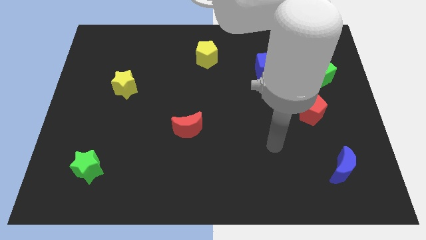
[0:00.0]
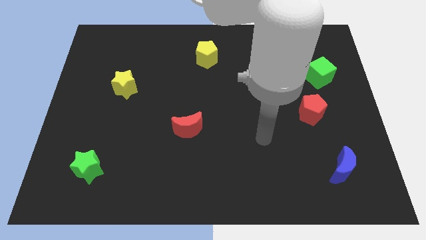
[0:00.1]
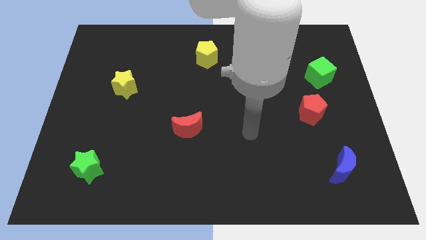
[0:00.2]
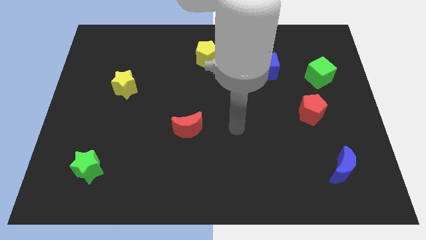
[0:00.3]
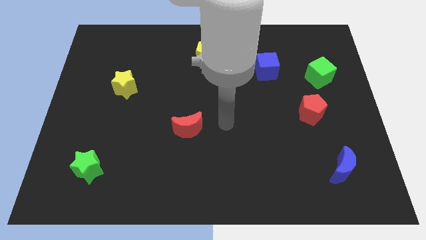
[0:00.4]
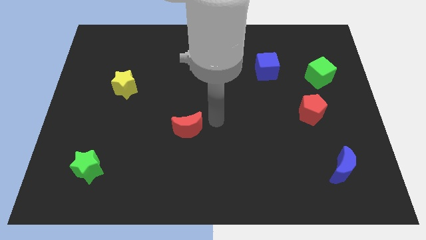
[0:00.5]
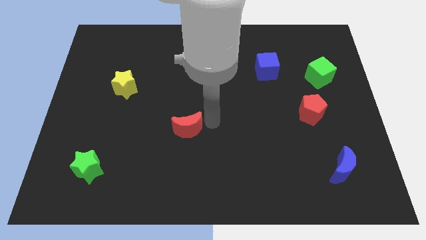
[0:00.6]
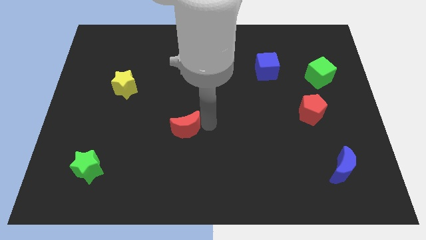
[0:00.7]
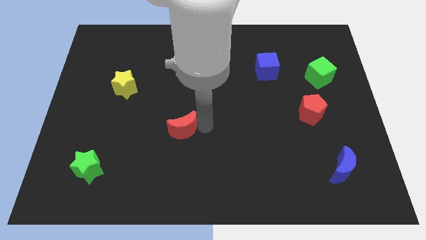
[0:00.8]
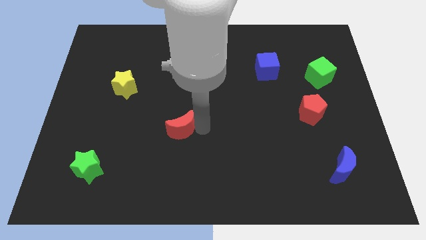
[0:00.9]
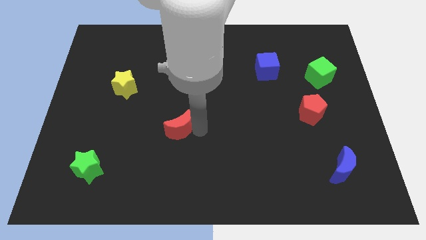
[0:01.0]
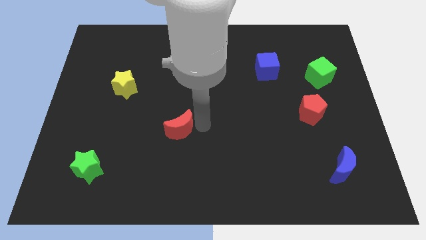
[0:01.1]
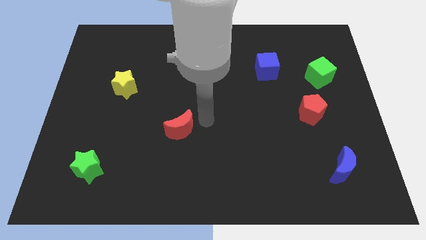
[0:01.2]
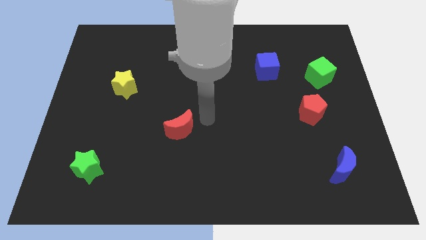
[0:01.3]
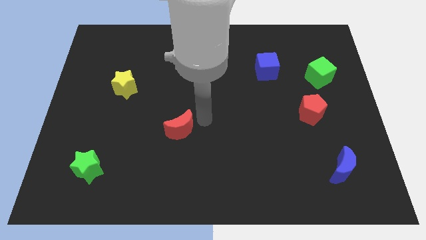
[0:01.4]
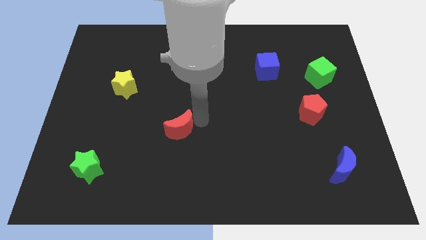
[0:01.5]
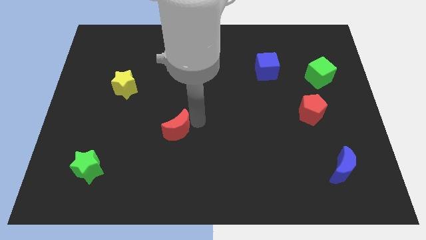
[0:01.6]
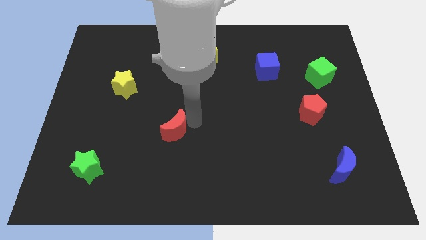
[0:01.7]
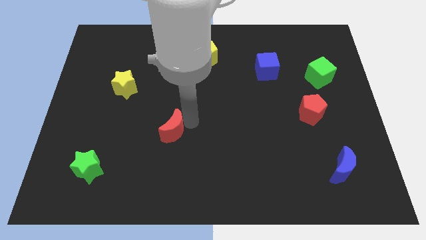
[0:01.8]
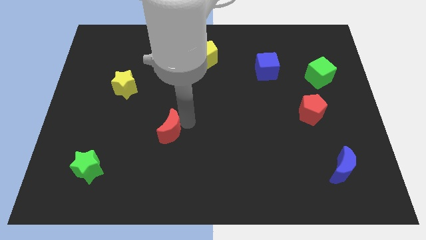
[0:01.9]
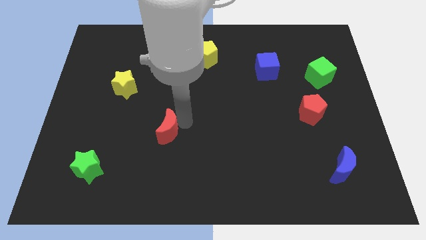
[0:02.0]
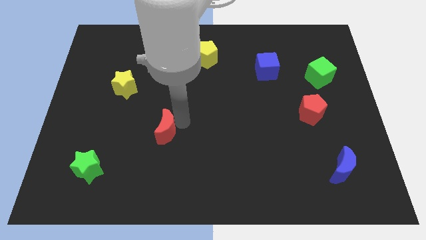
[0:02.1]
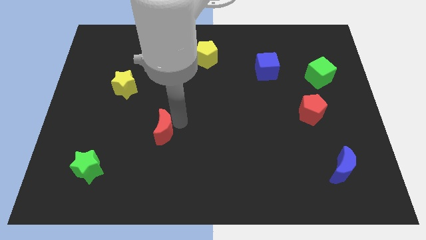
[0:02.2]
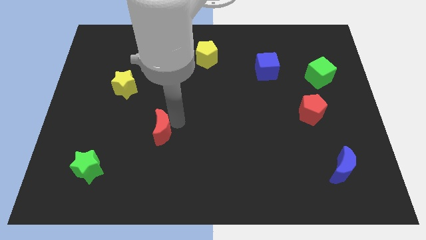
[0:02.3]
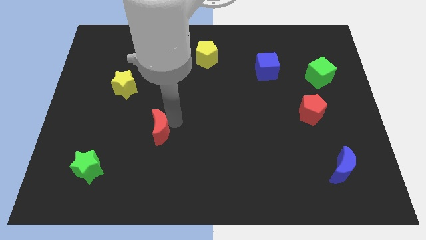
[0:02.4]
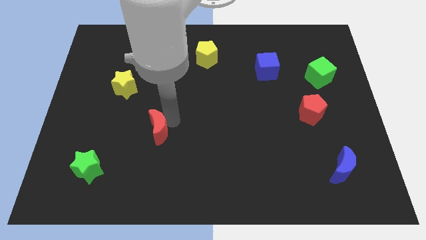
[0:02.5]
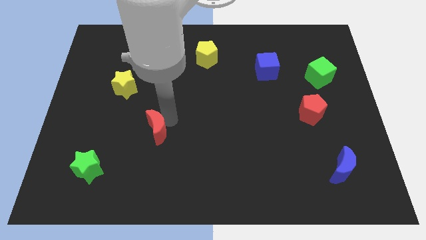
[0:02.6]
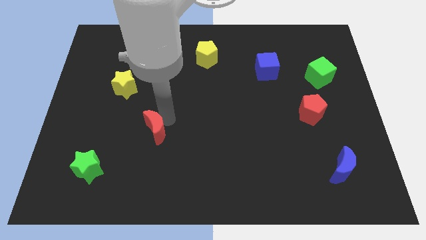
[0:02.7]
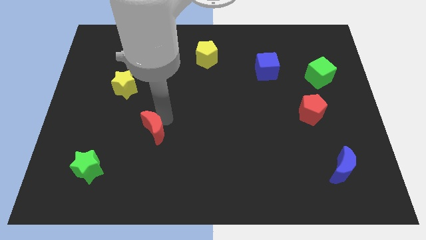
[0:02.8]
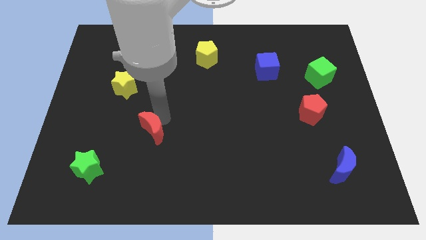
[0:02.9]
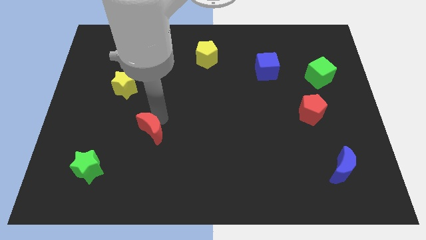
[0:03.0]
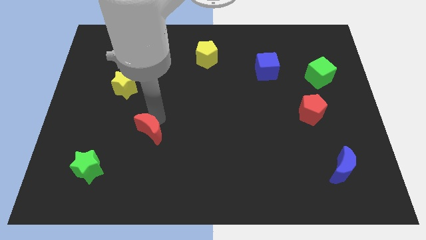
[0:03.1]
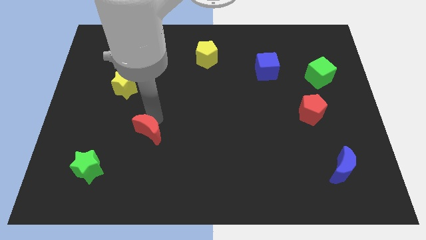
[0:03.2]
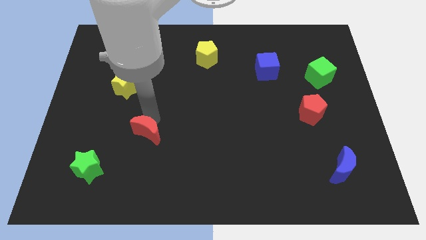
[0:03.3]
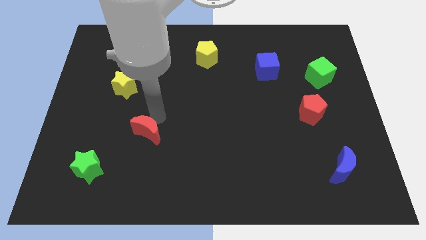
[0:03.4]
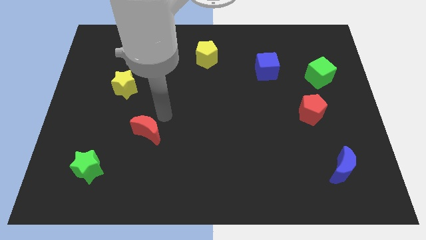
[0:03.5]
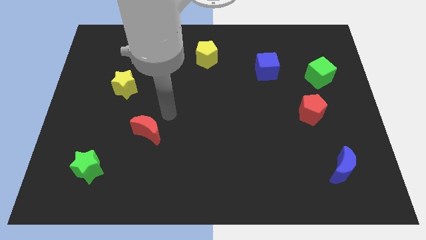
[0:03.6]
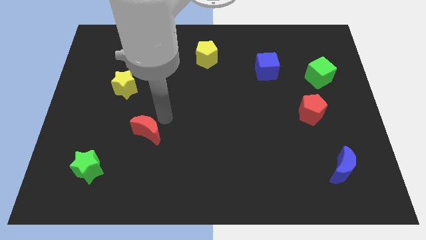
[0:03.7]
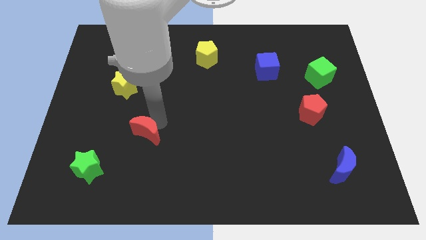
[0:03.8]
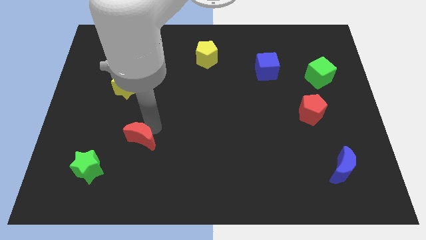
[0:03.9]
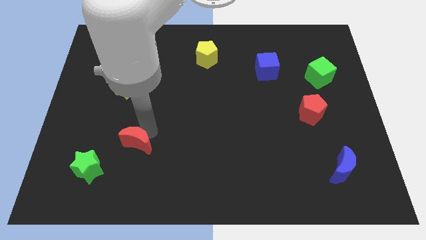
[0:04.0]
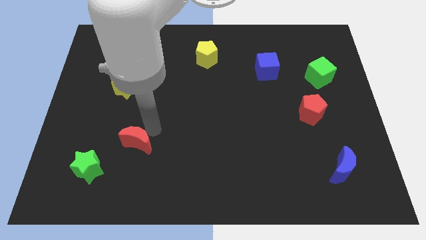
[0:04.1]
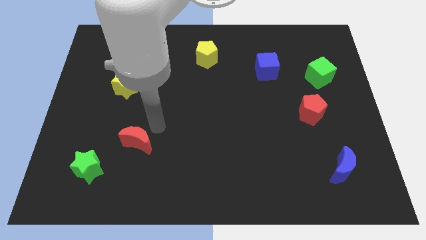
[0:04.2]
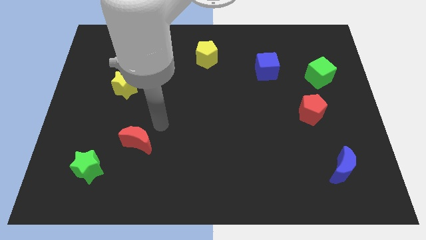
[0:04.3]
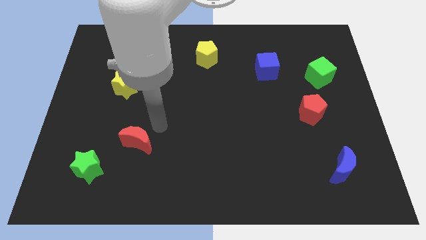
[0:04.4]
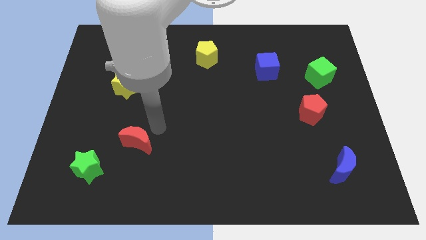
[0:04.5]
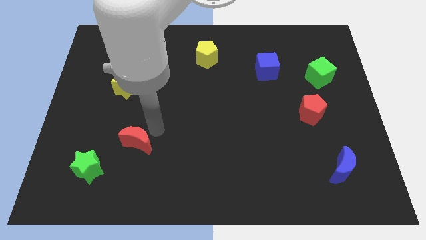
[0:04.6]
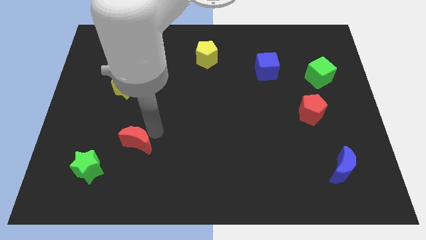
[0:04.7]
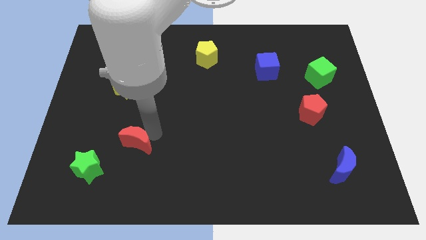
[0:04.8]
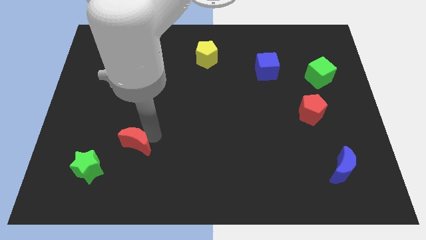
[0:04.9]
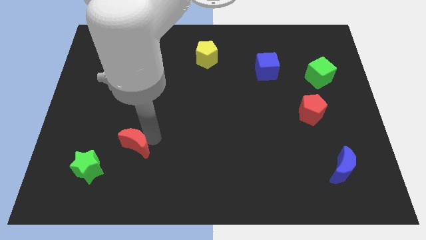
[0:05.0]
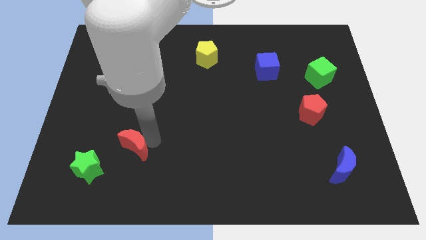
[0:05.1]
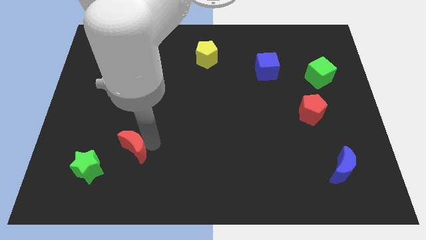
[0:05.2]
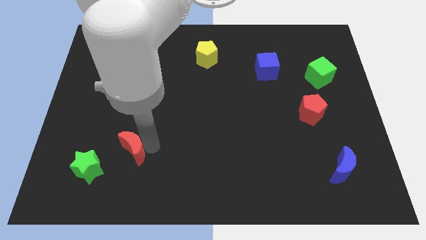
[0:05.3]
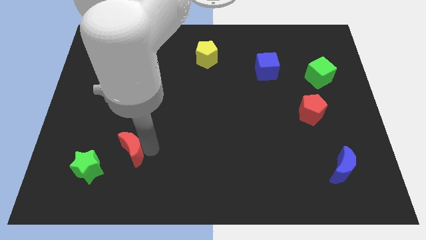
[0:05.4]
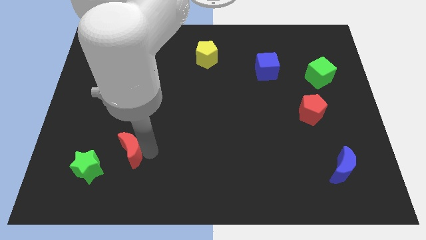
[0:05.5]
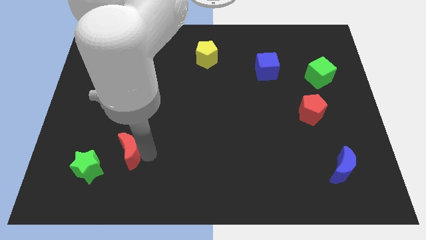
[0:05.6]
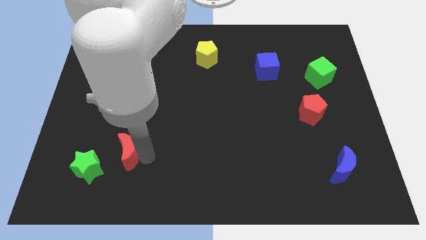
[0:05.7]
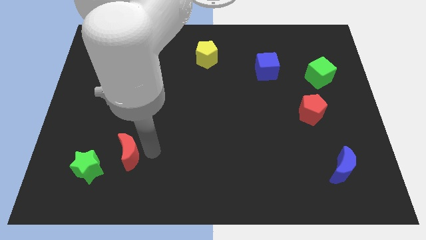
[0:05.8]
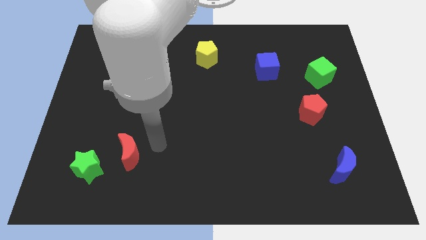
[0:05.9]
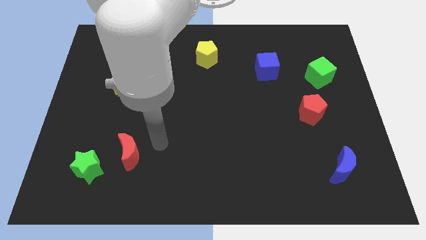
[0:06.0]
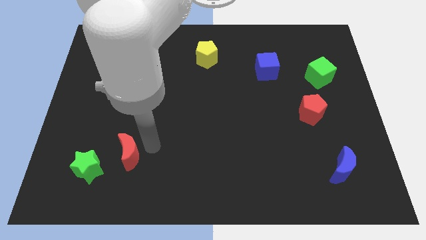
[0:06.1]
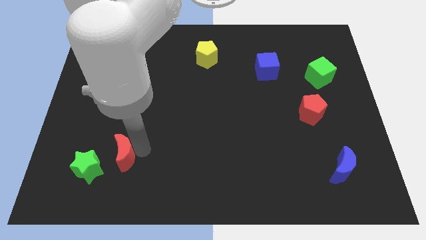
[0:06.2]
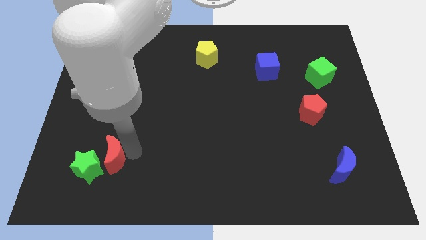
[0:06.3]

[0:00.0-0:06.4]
slide the red moon towards the green star

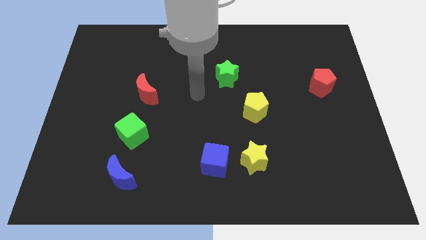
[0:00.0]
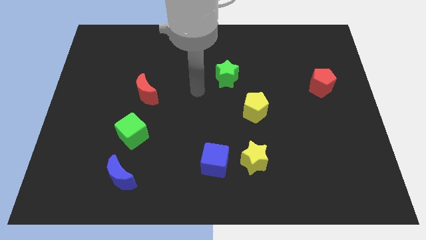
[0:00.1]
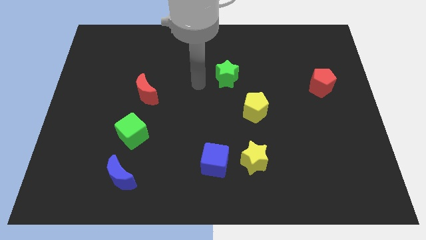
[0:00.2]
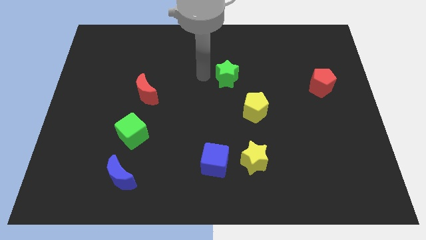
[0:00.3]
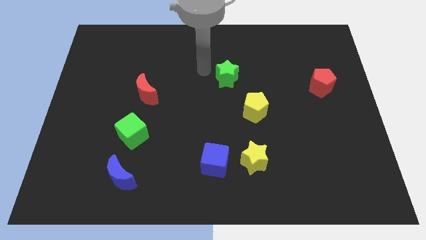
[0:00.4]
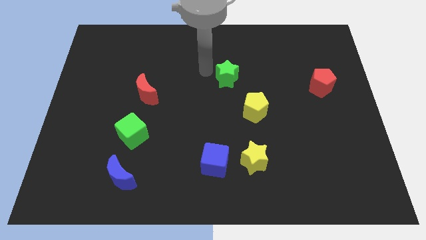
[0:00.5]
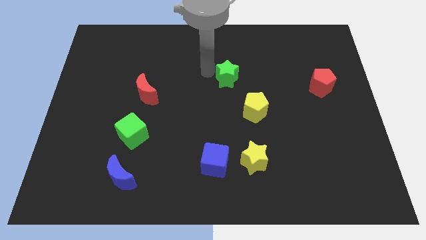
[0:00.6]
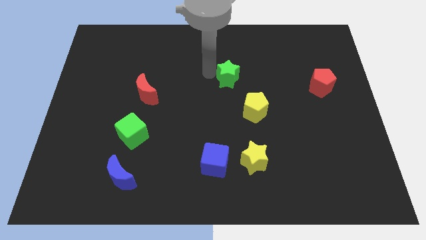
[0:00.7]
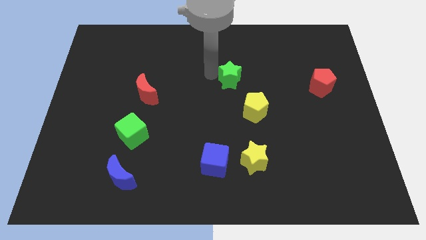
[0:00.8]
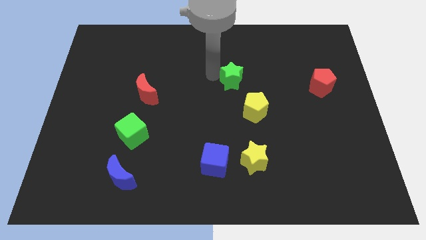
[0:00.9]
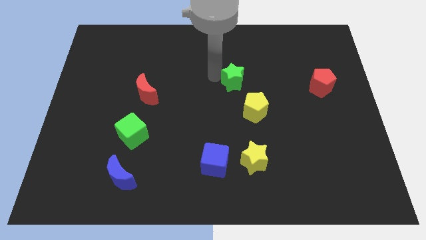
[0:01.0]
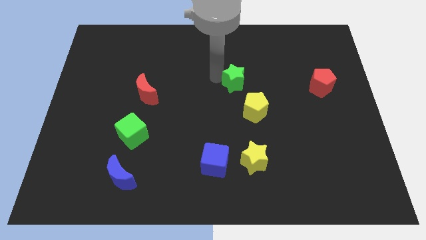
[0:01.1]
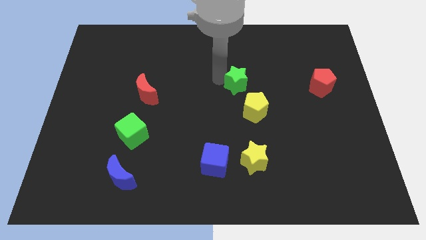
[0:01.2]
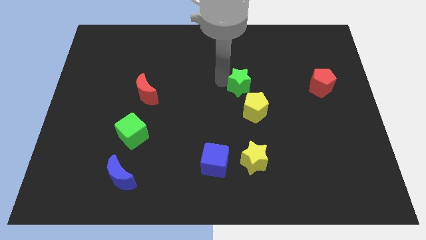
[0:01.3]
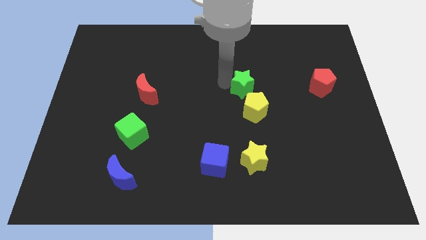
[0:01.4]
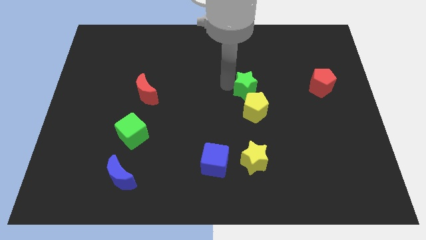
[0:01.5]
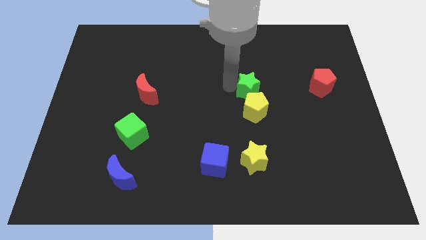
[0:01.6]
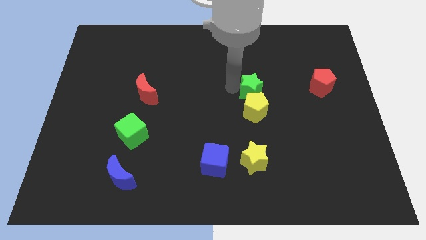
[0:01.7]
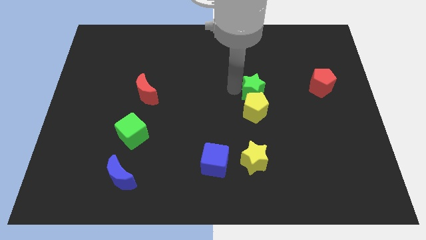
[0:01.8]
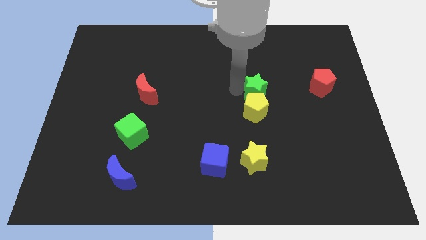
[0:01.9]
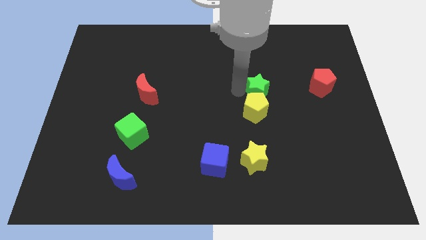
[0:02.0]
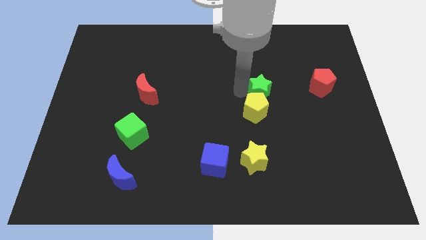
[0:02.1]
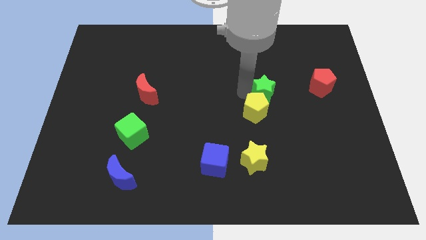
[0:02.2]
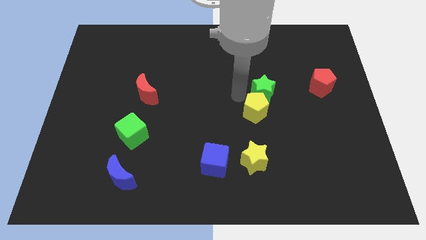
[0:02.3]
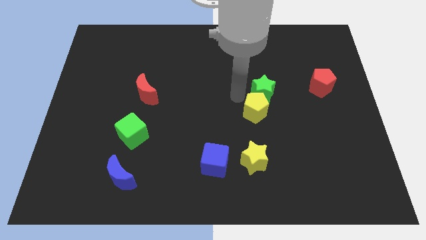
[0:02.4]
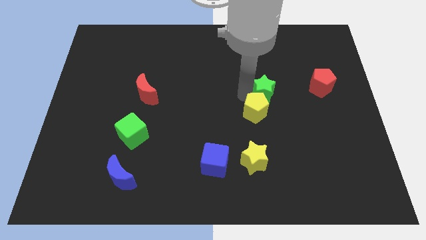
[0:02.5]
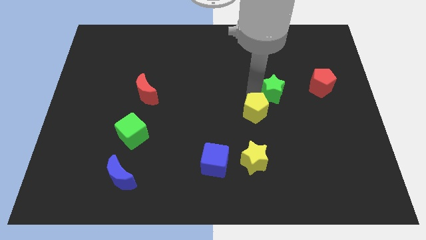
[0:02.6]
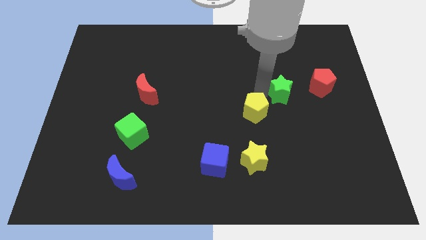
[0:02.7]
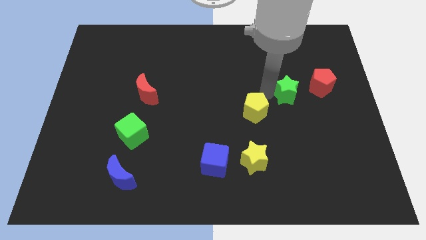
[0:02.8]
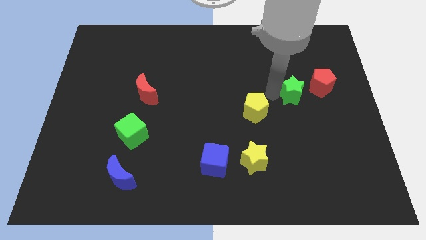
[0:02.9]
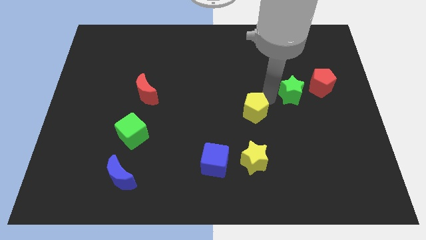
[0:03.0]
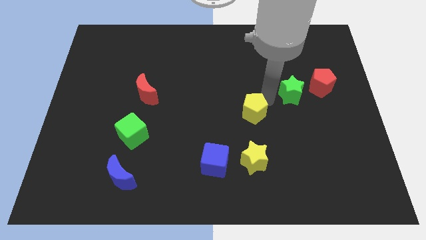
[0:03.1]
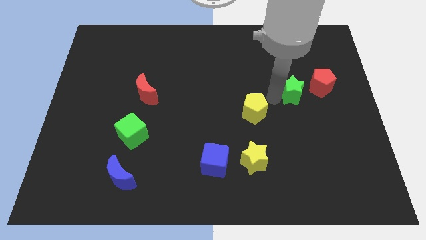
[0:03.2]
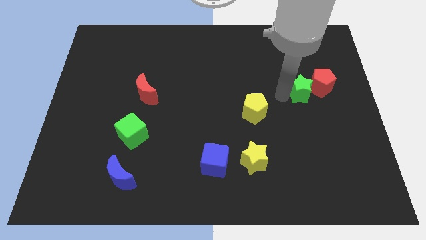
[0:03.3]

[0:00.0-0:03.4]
put the green star next to the red pentagon
